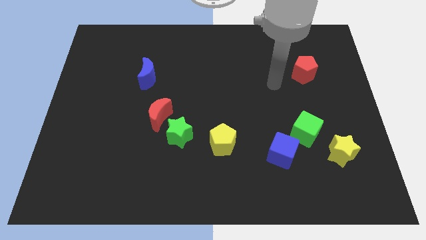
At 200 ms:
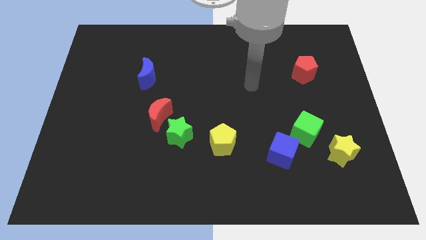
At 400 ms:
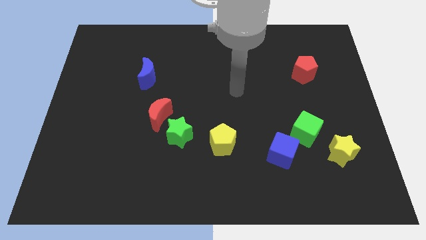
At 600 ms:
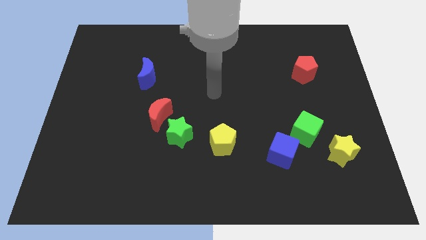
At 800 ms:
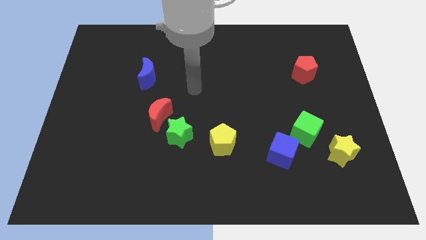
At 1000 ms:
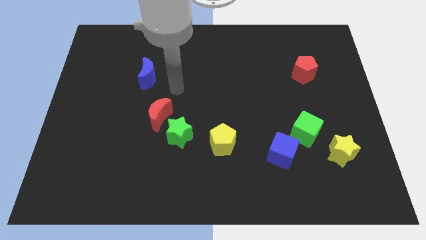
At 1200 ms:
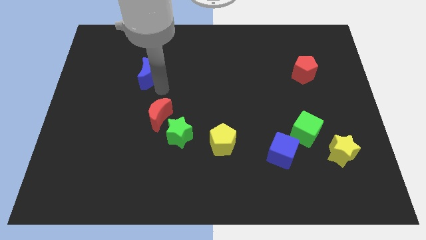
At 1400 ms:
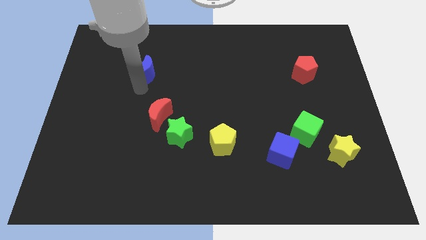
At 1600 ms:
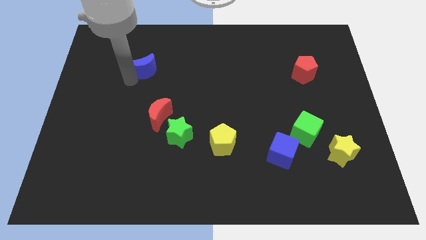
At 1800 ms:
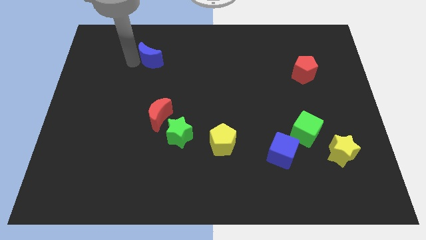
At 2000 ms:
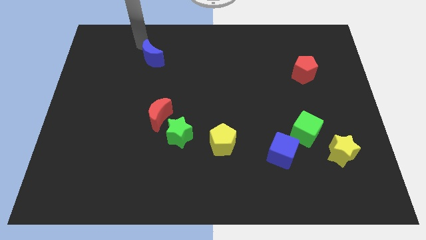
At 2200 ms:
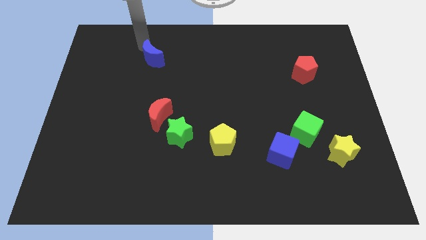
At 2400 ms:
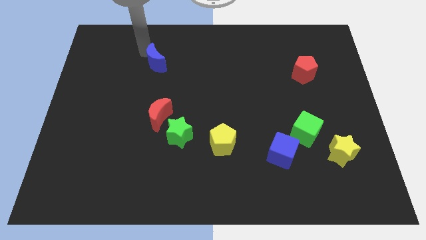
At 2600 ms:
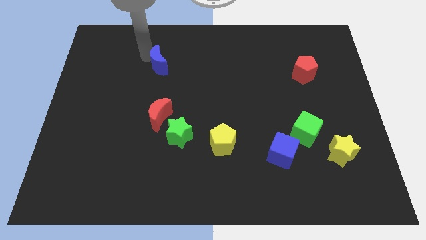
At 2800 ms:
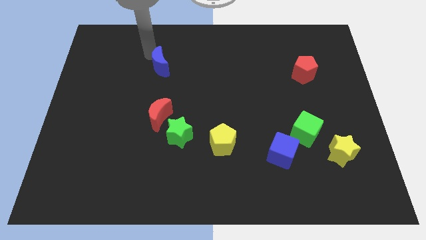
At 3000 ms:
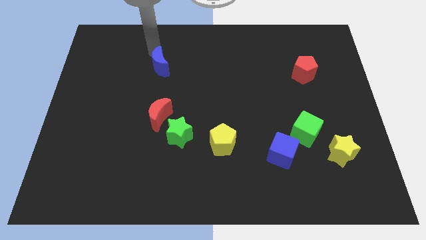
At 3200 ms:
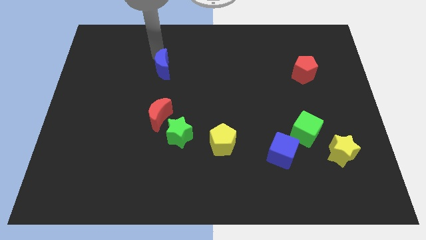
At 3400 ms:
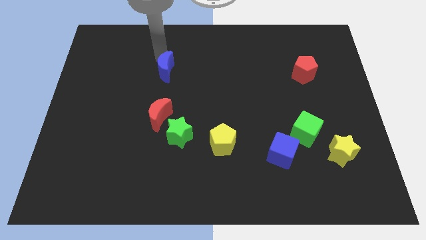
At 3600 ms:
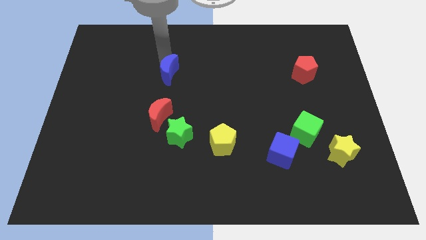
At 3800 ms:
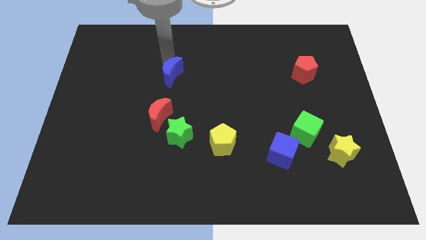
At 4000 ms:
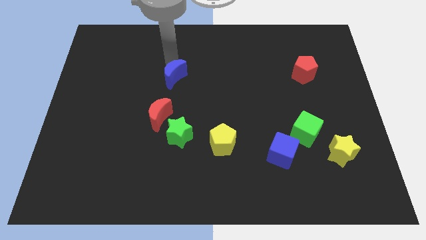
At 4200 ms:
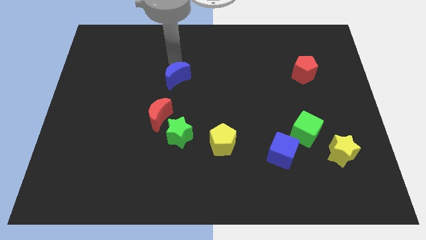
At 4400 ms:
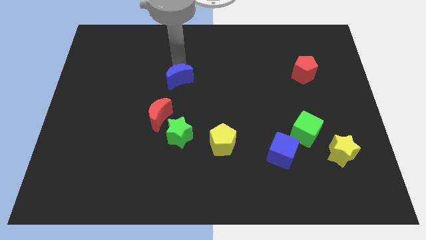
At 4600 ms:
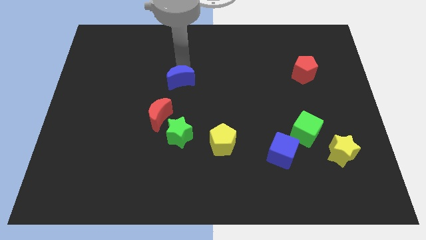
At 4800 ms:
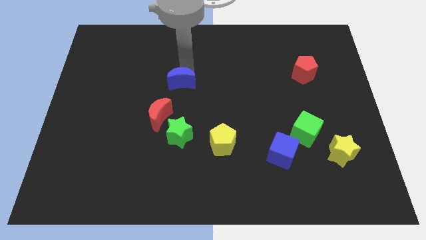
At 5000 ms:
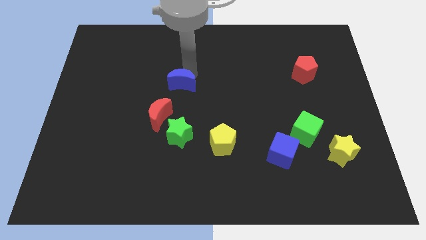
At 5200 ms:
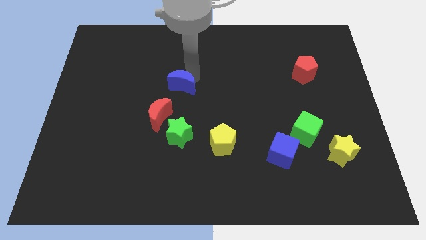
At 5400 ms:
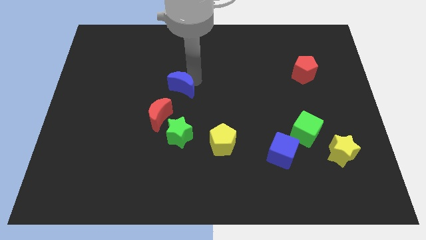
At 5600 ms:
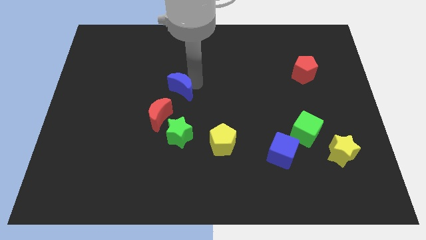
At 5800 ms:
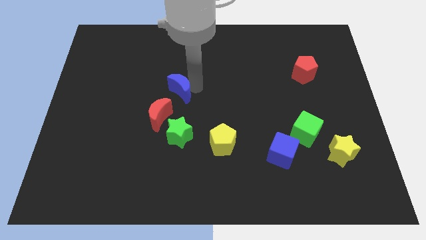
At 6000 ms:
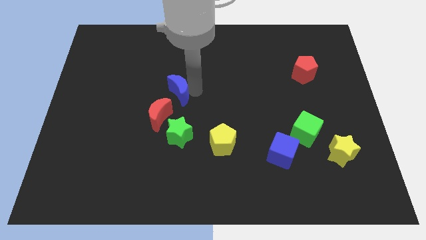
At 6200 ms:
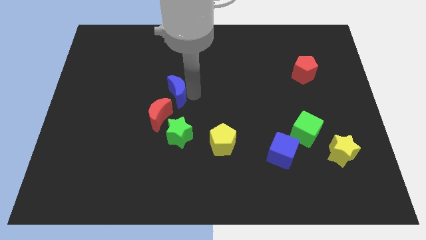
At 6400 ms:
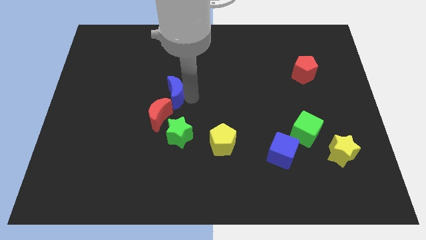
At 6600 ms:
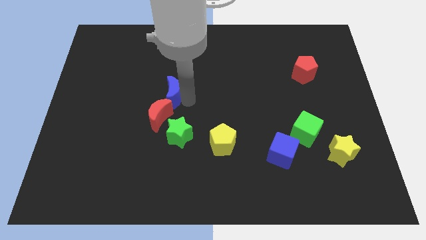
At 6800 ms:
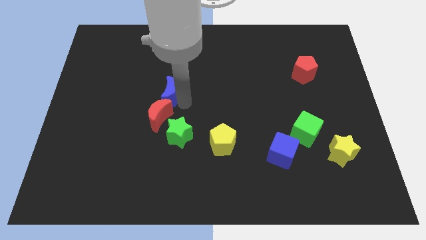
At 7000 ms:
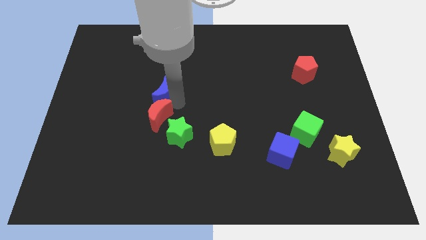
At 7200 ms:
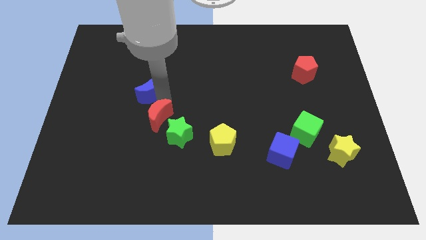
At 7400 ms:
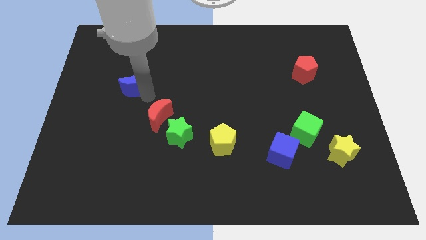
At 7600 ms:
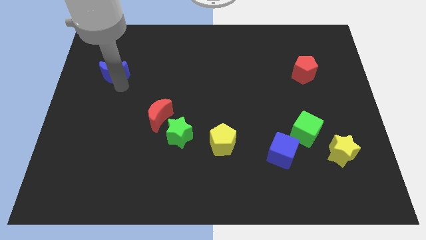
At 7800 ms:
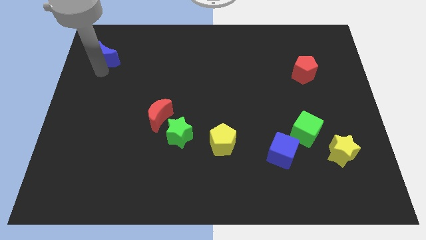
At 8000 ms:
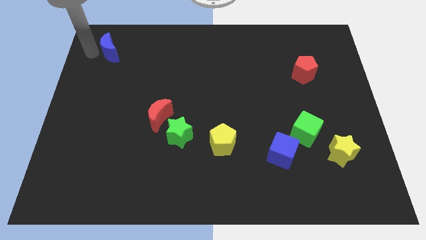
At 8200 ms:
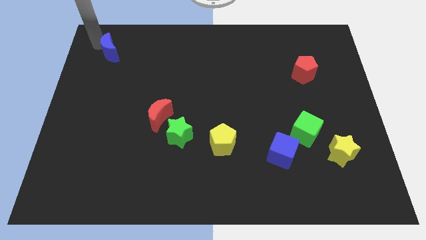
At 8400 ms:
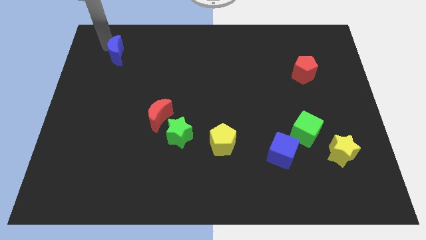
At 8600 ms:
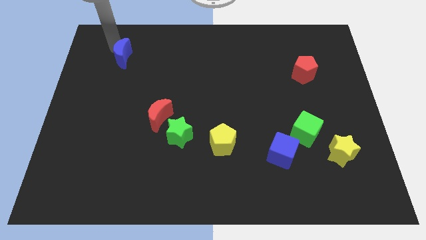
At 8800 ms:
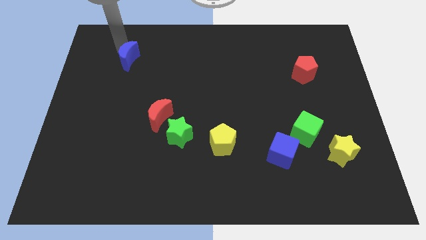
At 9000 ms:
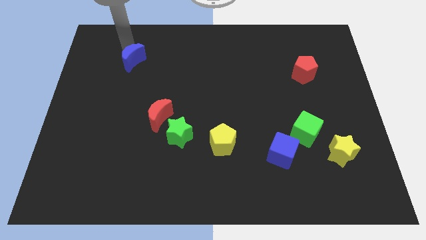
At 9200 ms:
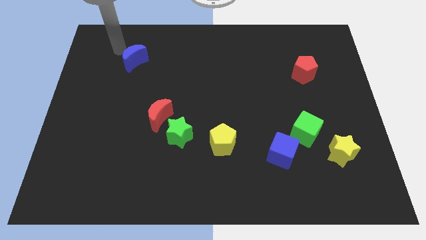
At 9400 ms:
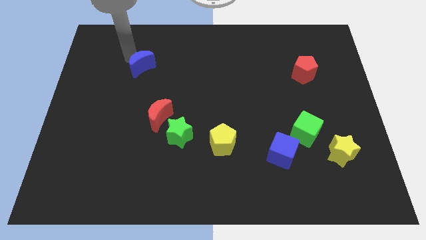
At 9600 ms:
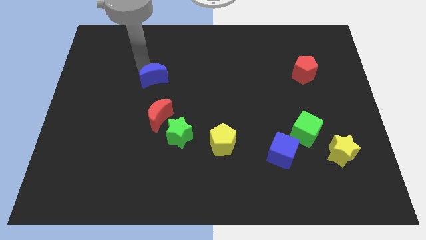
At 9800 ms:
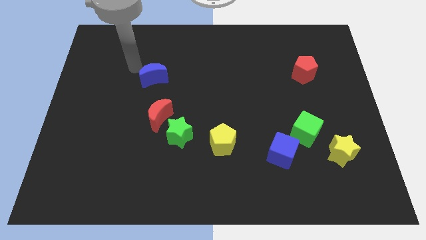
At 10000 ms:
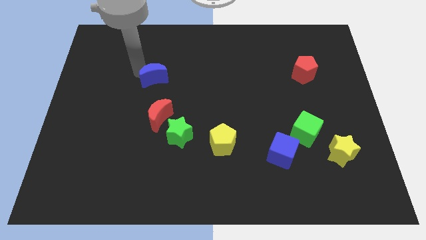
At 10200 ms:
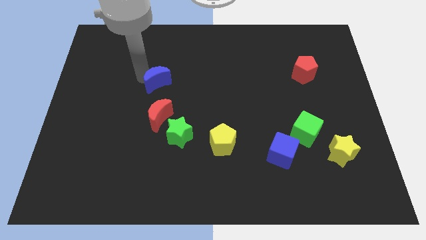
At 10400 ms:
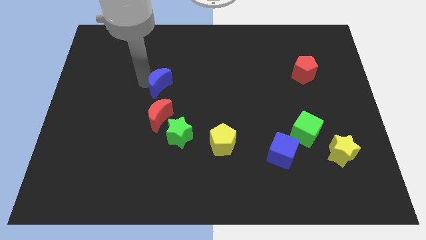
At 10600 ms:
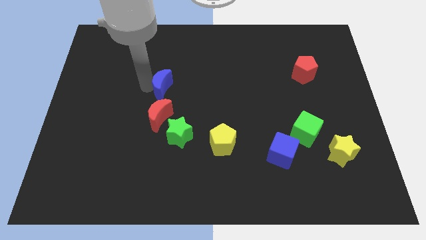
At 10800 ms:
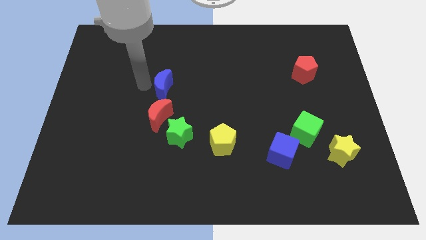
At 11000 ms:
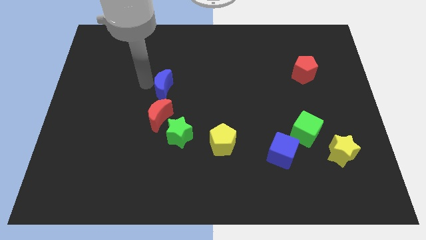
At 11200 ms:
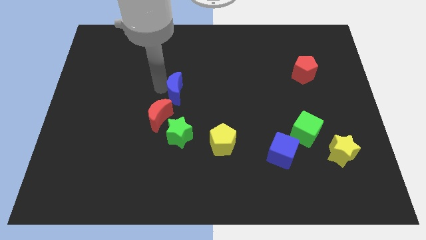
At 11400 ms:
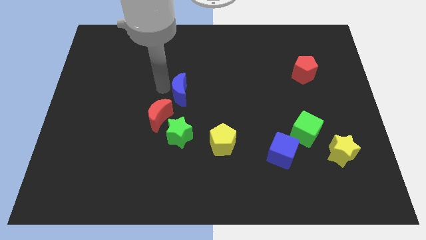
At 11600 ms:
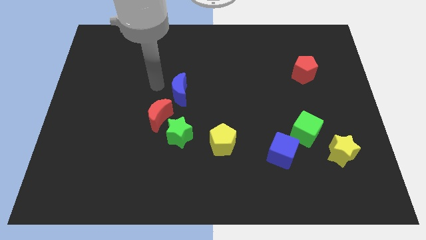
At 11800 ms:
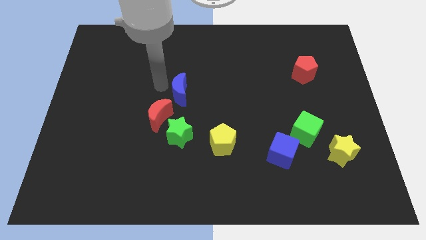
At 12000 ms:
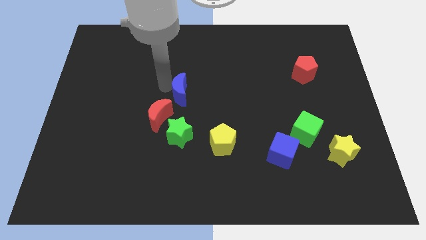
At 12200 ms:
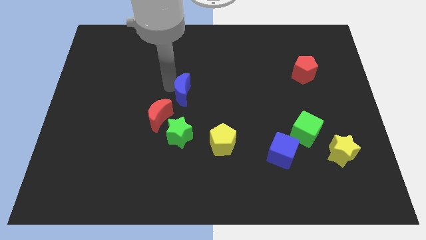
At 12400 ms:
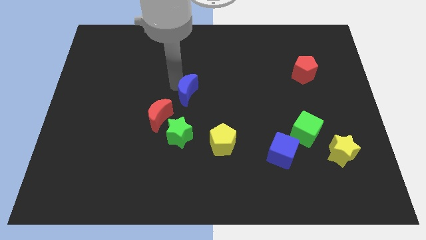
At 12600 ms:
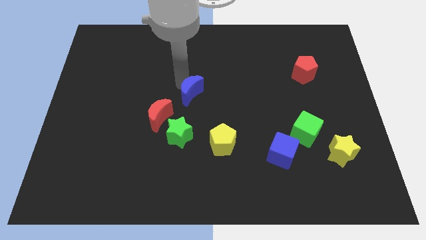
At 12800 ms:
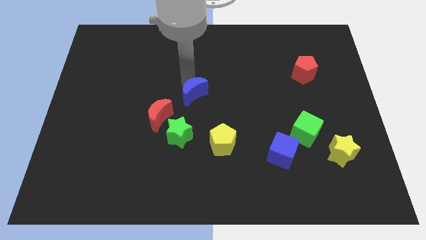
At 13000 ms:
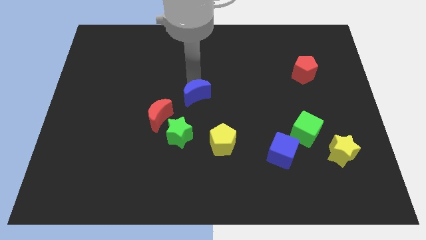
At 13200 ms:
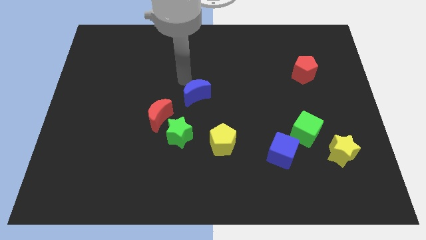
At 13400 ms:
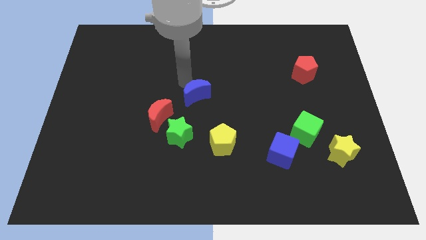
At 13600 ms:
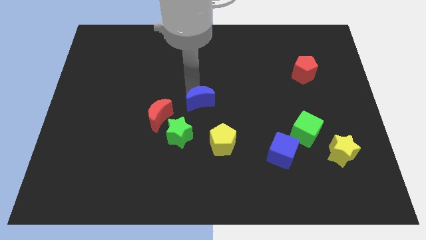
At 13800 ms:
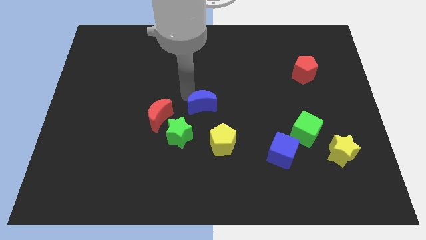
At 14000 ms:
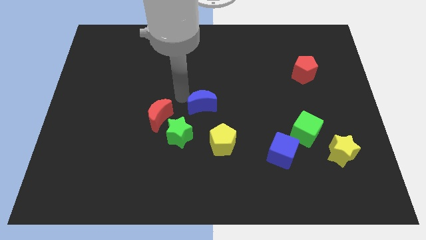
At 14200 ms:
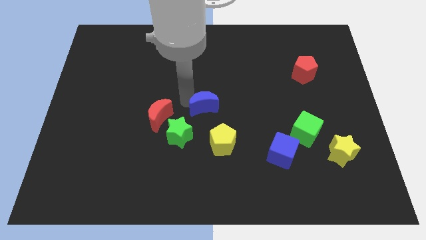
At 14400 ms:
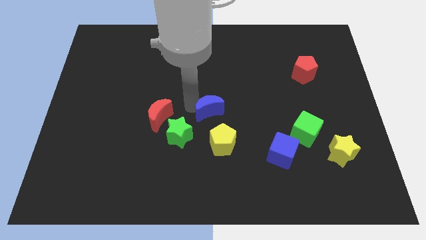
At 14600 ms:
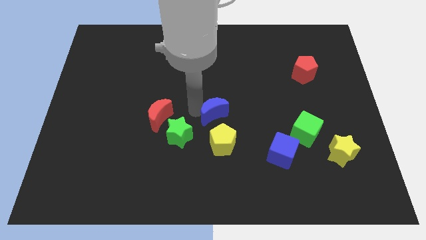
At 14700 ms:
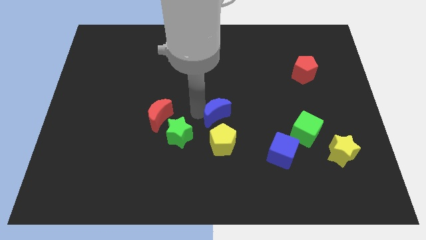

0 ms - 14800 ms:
slide the blue moon diagonally downwards and right

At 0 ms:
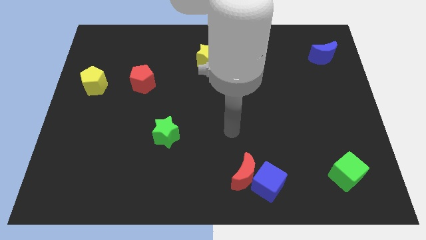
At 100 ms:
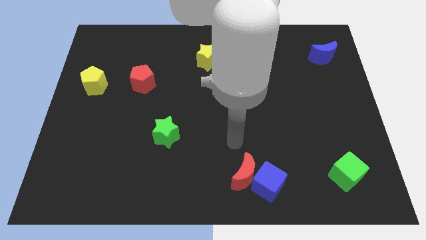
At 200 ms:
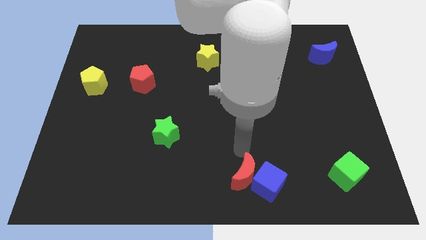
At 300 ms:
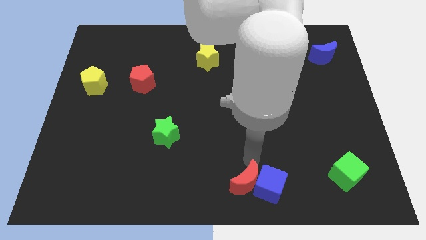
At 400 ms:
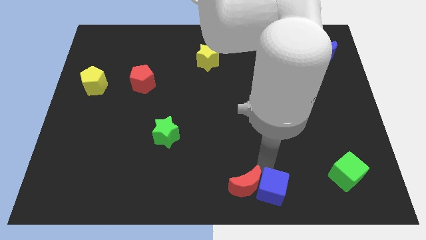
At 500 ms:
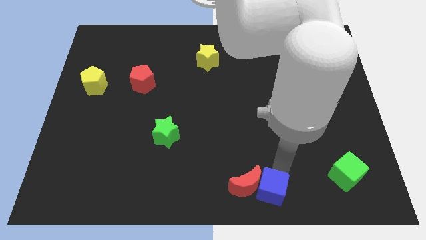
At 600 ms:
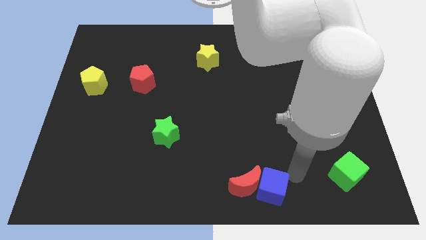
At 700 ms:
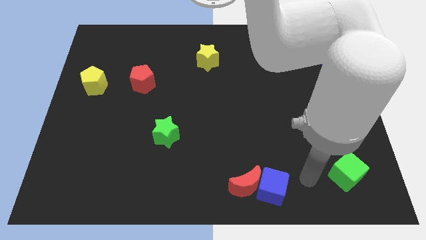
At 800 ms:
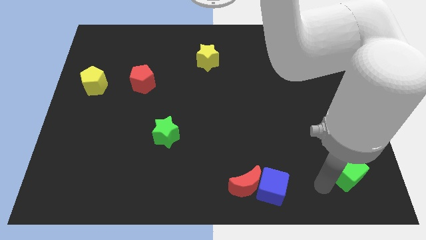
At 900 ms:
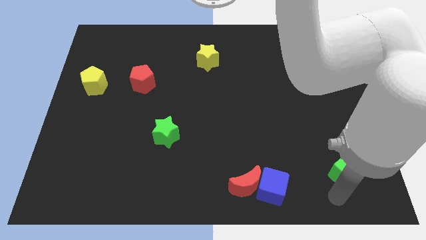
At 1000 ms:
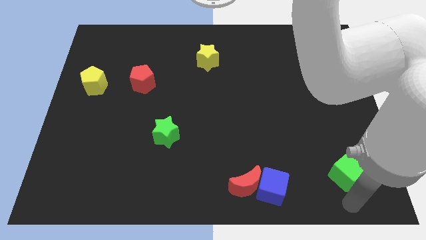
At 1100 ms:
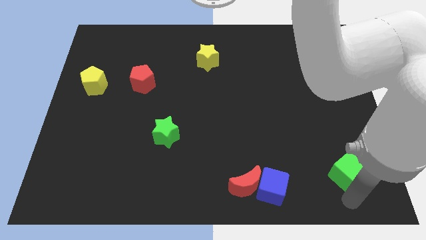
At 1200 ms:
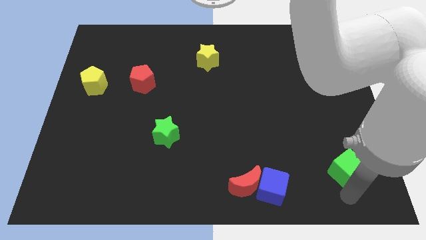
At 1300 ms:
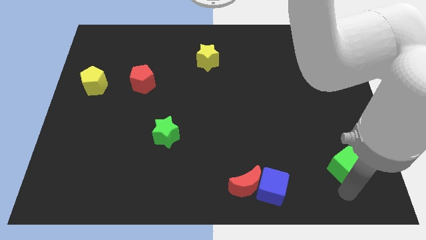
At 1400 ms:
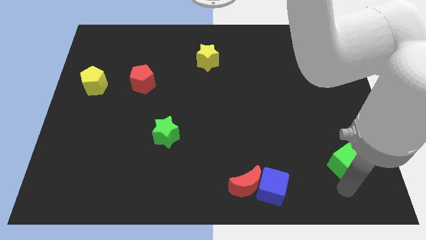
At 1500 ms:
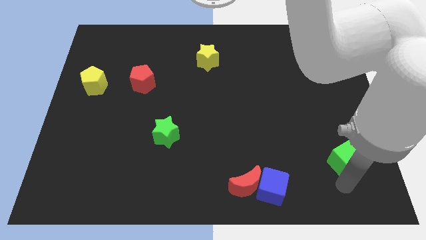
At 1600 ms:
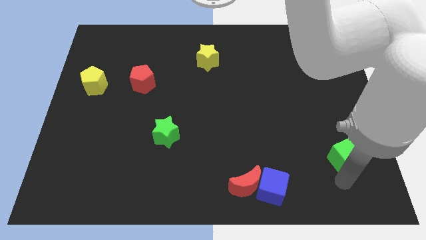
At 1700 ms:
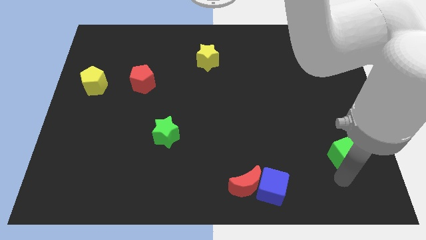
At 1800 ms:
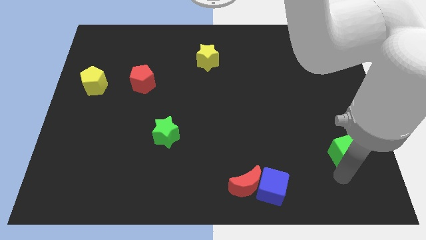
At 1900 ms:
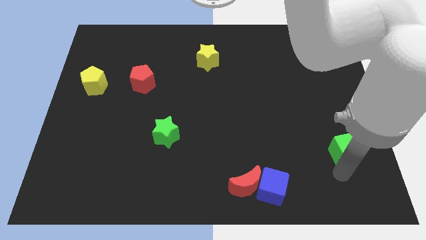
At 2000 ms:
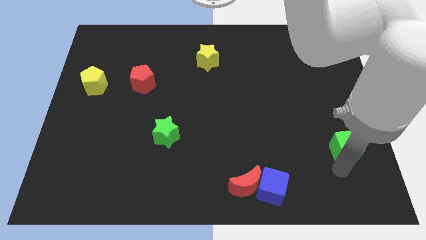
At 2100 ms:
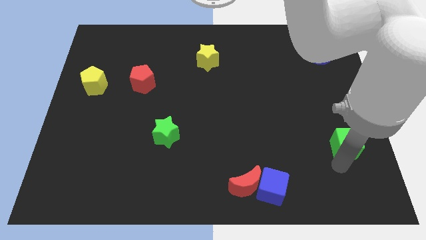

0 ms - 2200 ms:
slide the green cube up somewhat
